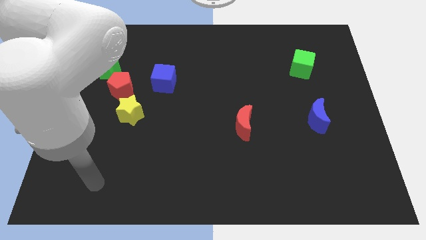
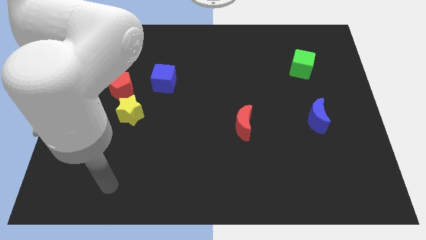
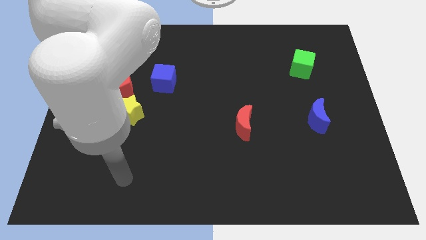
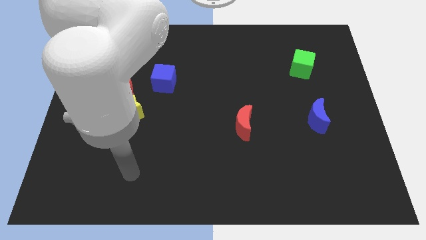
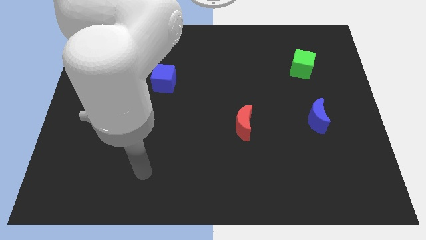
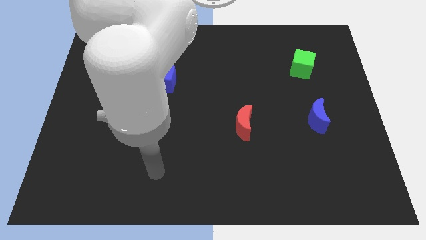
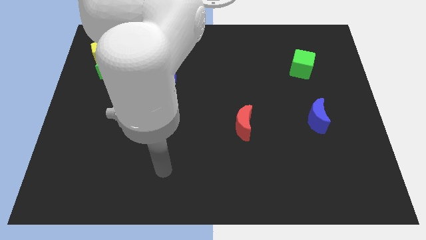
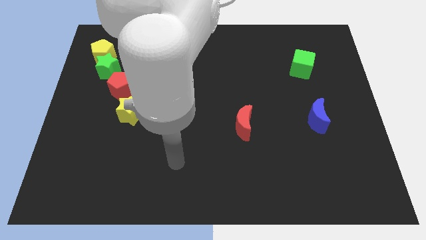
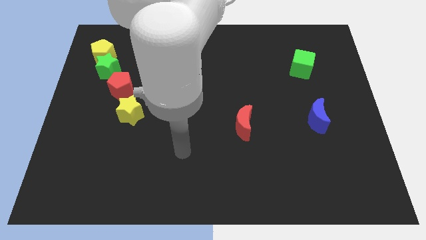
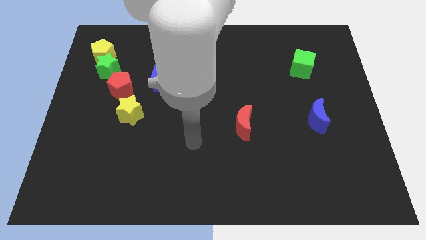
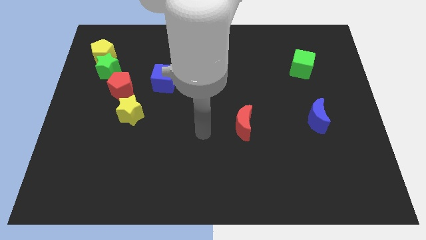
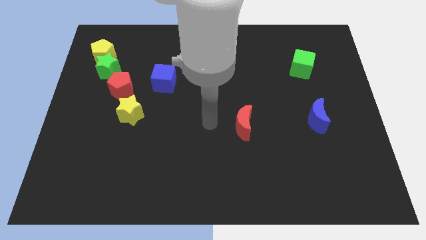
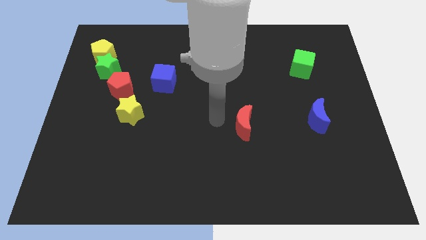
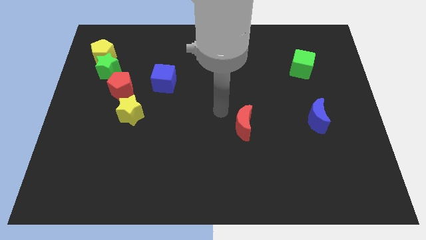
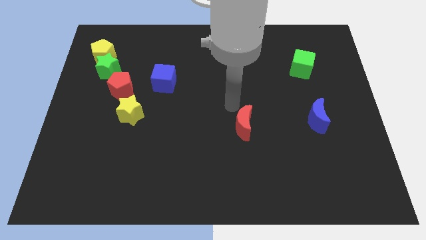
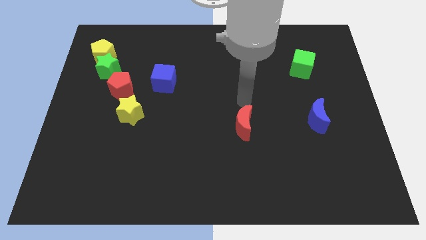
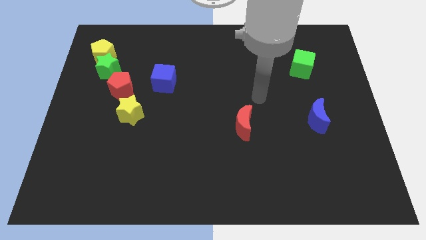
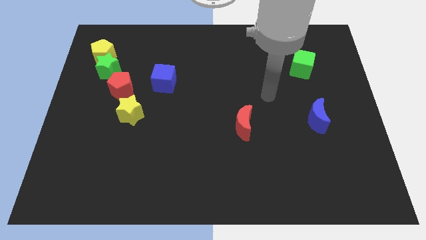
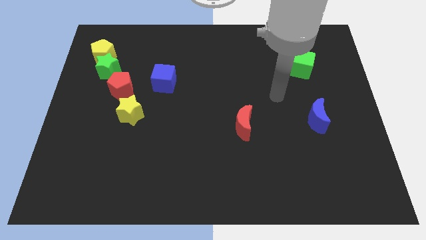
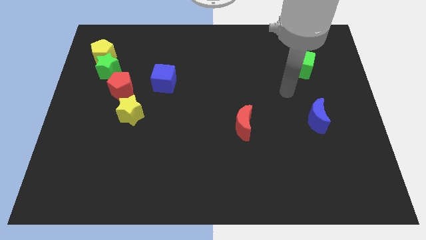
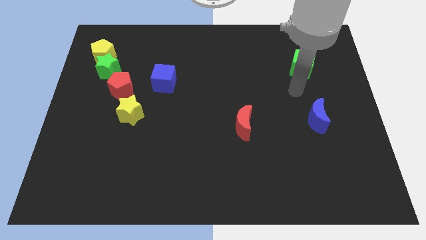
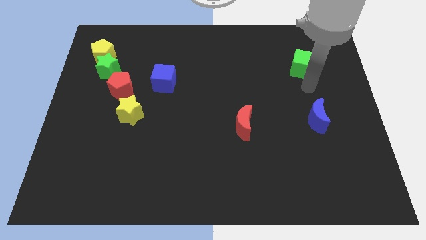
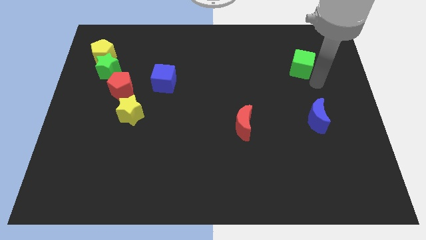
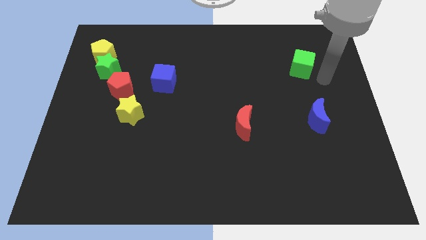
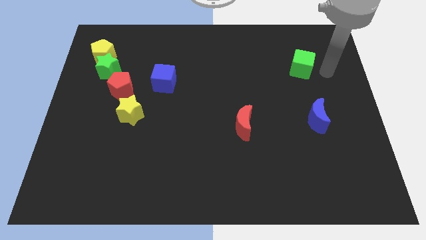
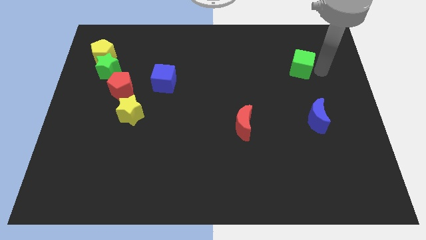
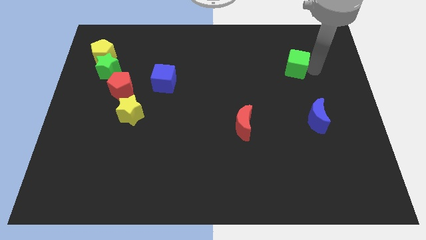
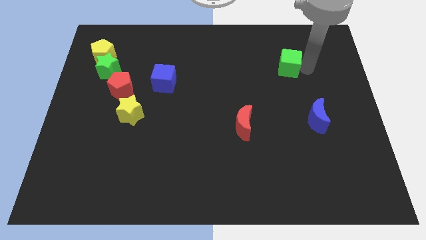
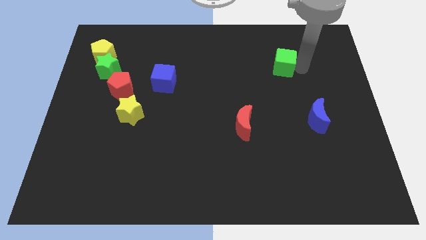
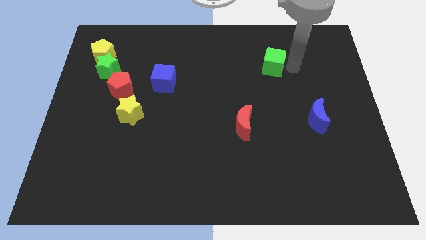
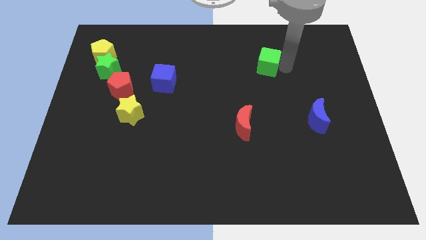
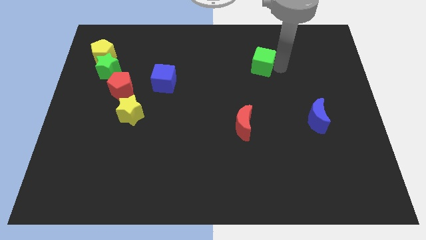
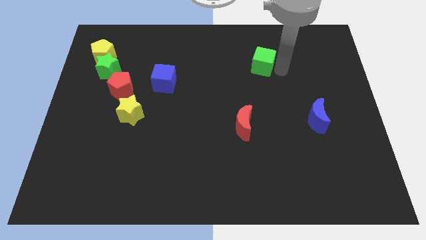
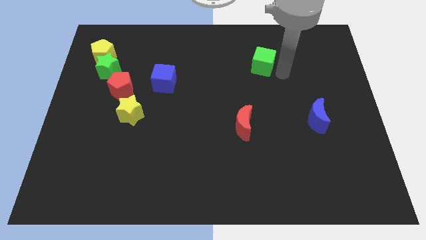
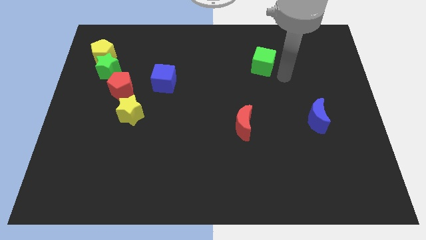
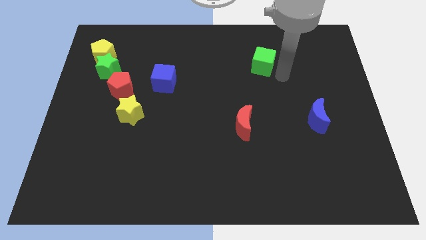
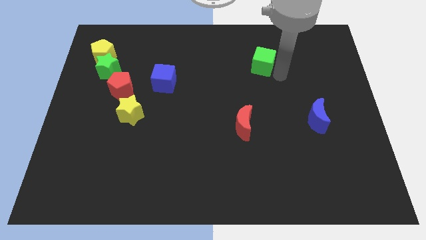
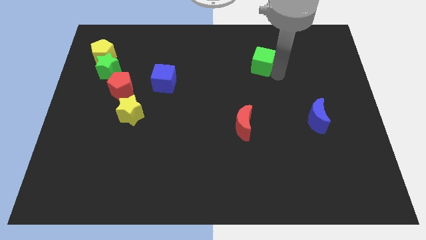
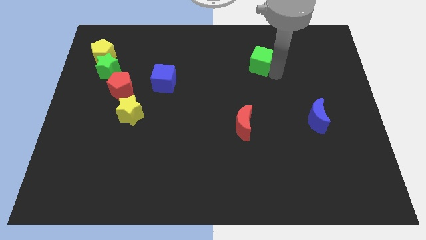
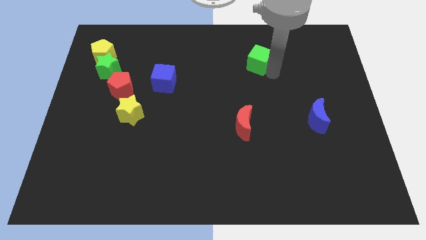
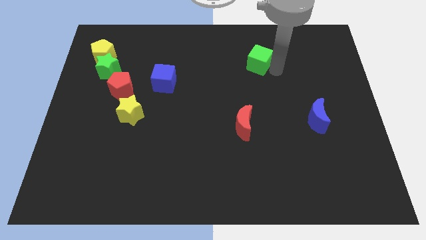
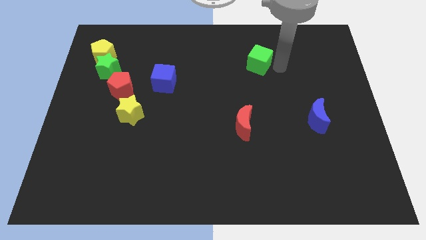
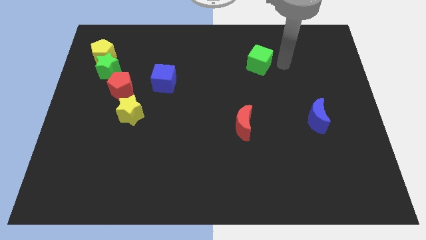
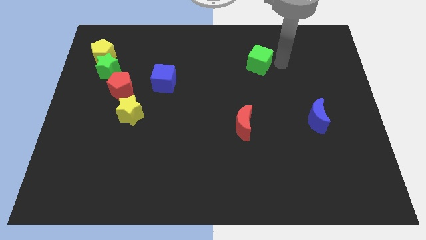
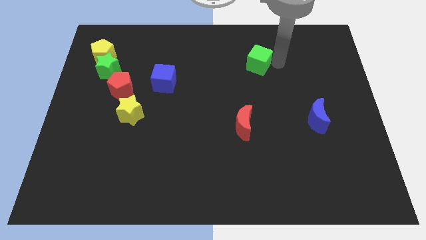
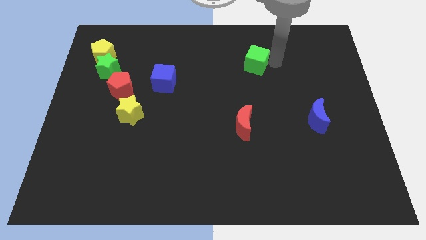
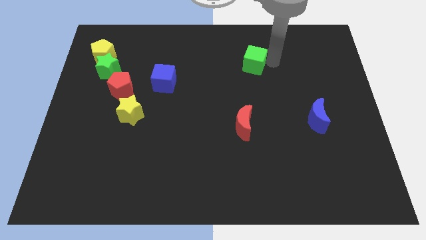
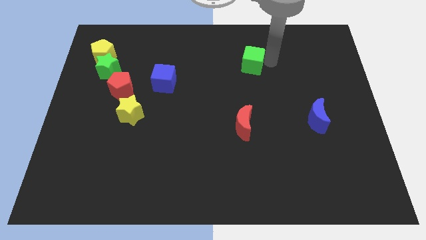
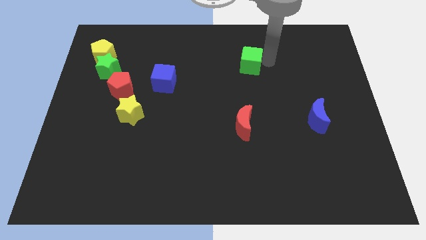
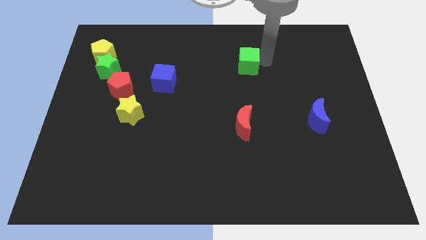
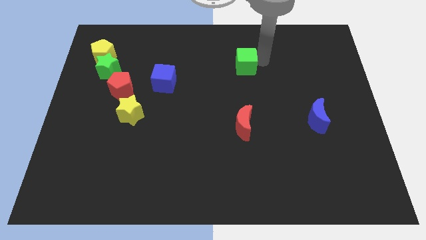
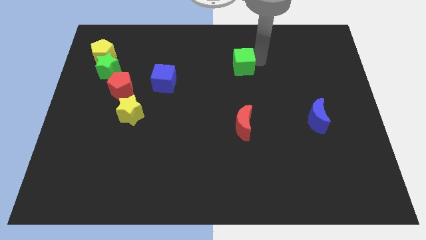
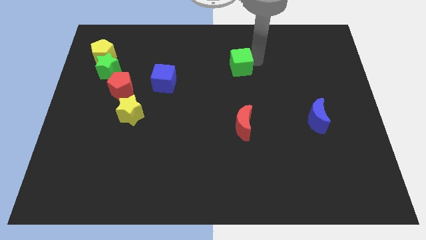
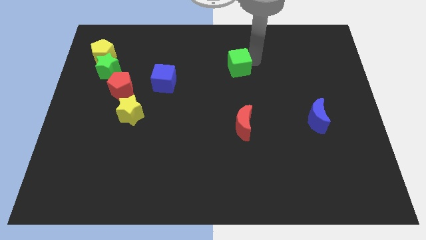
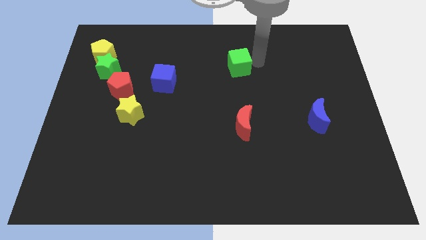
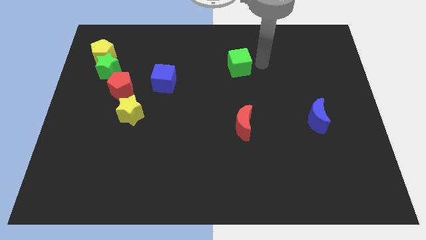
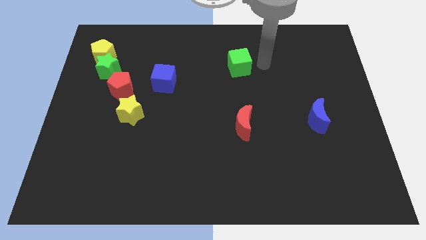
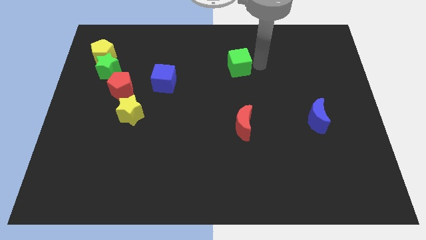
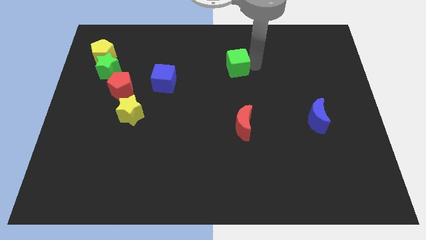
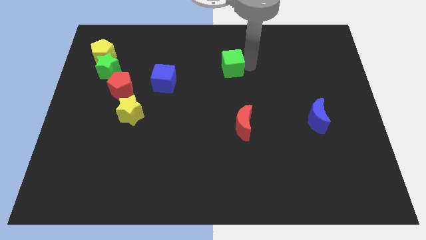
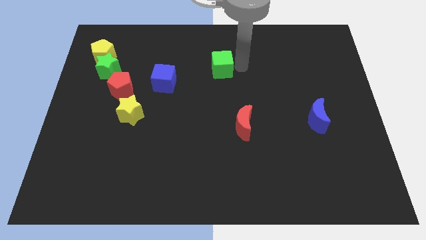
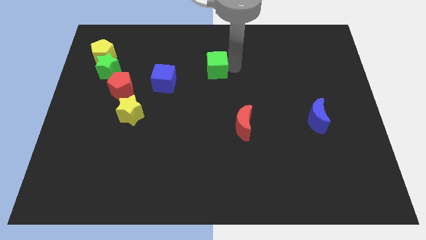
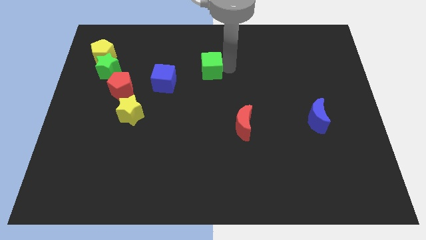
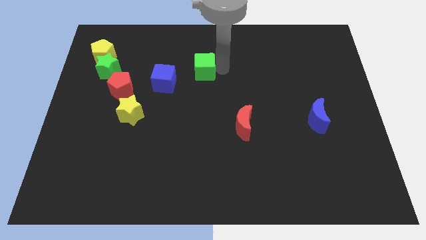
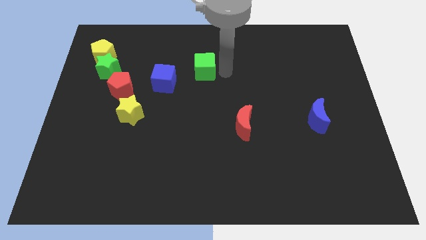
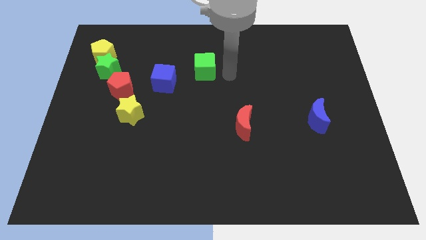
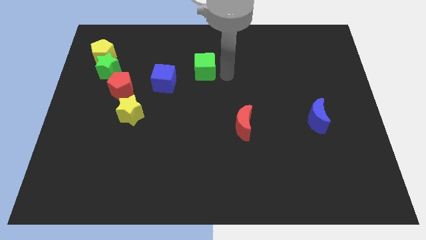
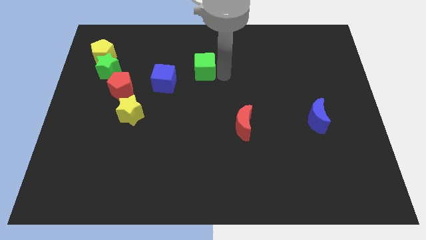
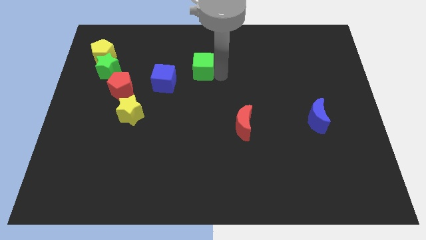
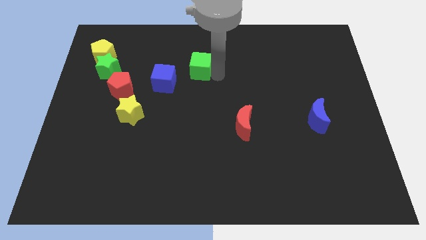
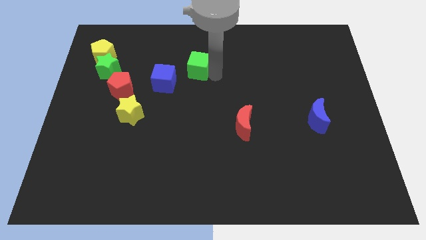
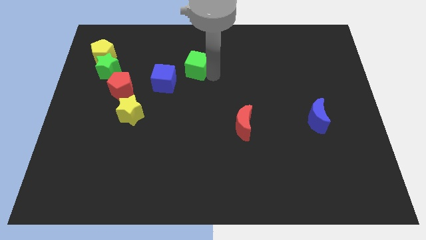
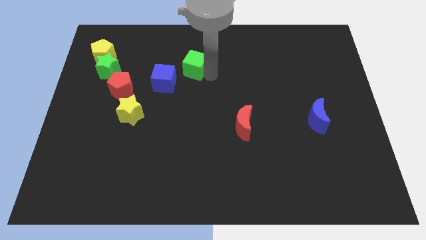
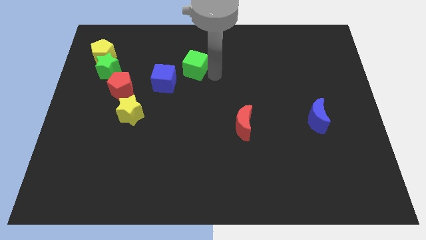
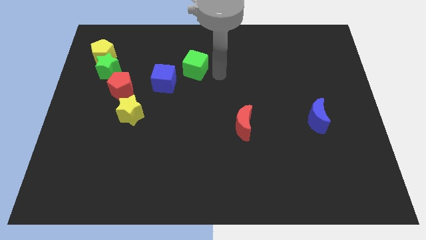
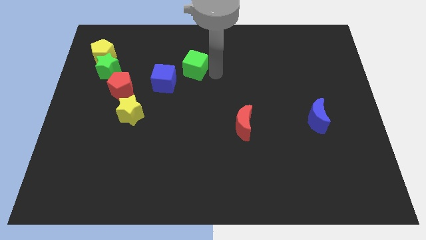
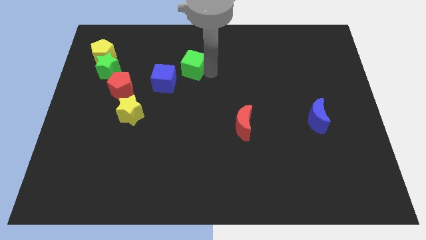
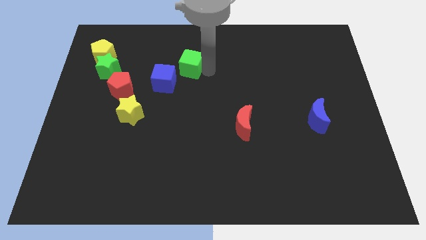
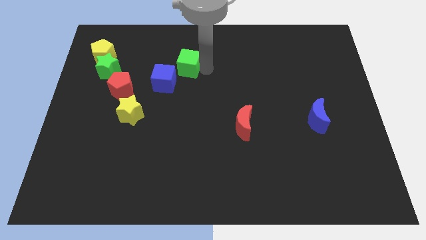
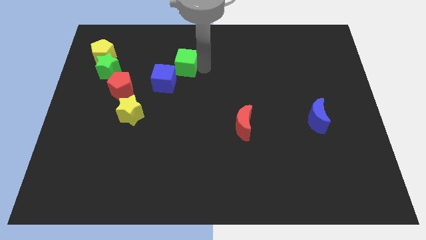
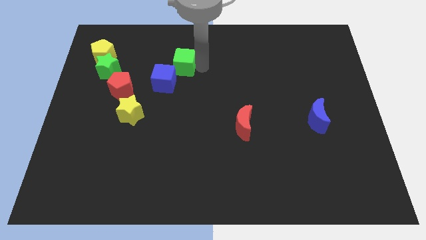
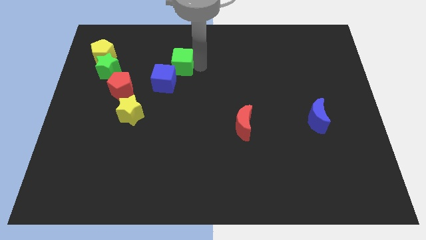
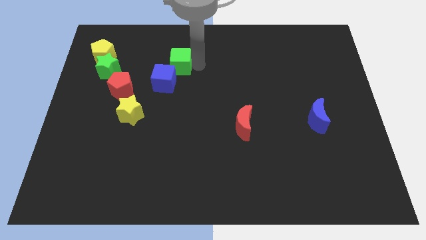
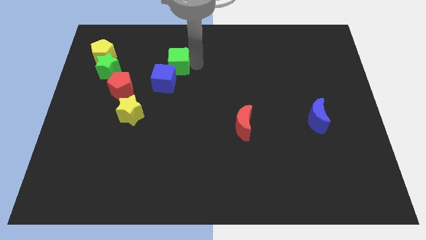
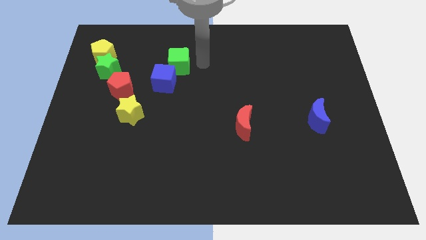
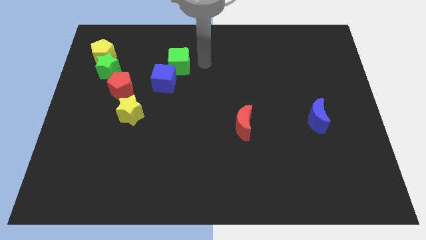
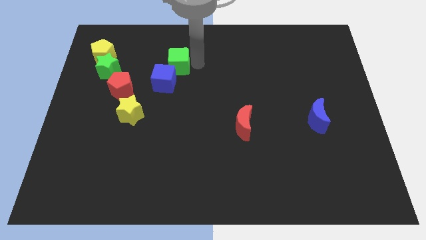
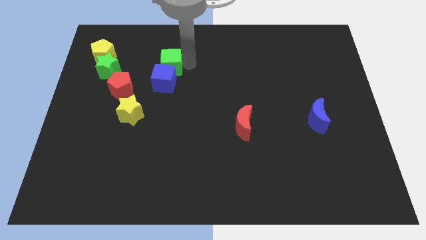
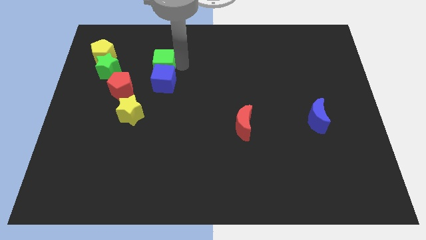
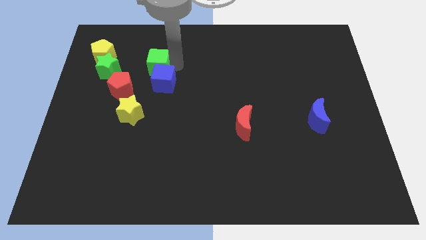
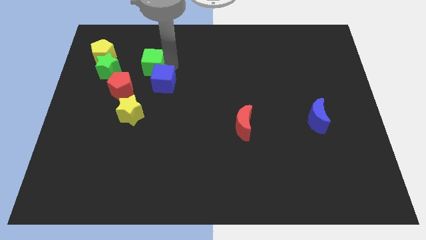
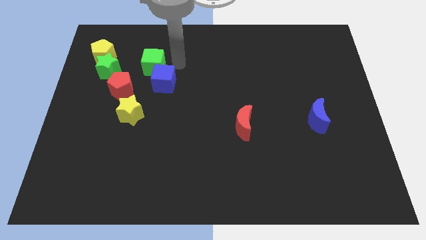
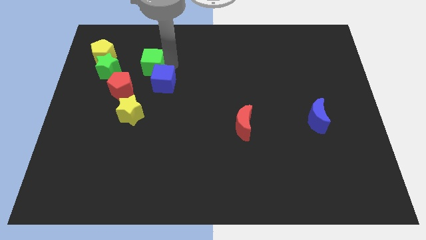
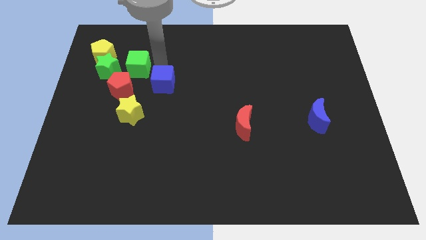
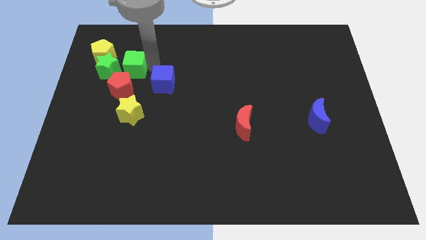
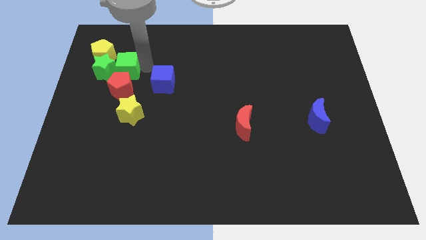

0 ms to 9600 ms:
slide the green cube to the green star
